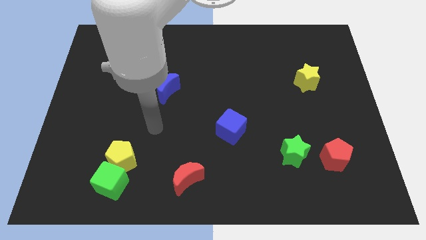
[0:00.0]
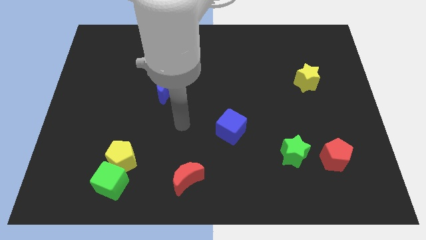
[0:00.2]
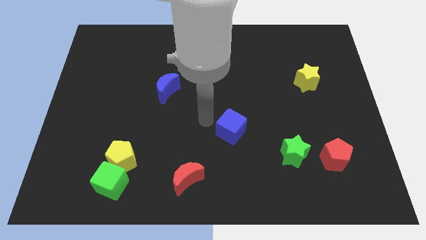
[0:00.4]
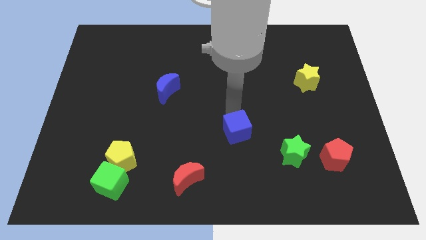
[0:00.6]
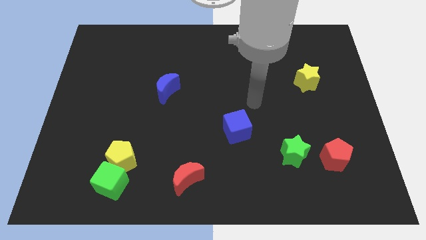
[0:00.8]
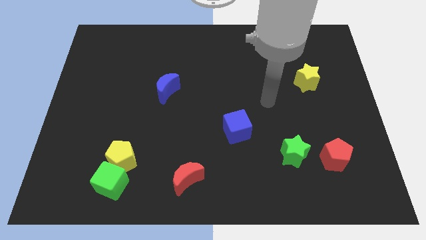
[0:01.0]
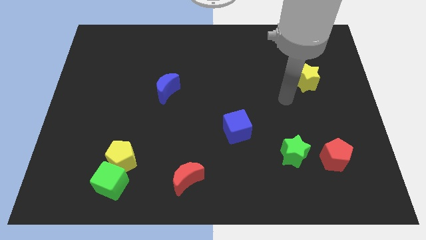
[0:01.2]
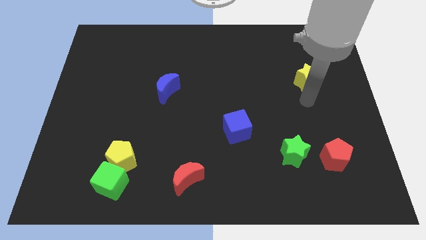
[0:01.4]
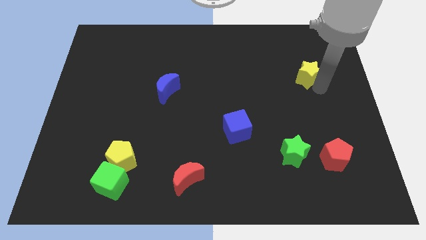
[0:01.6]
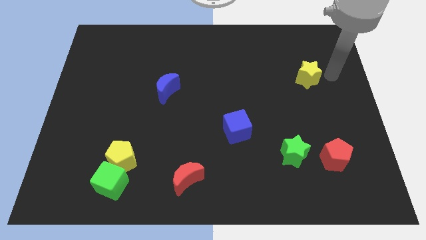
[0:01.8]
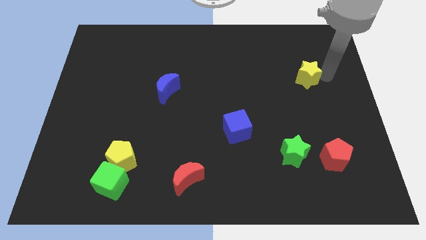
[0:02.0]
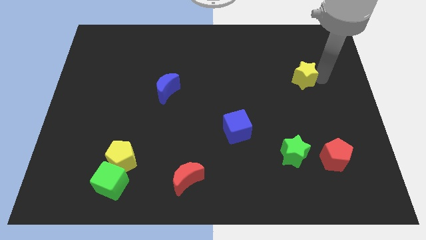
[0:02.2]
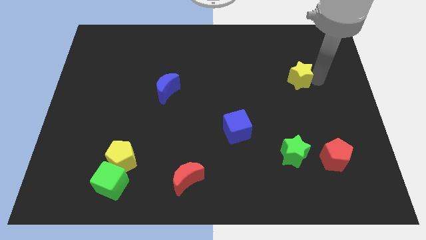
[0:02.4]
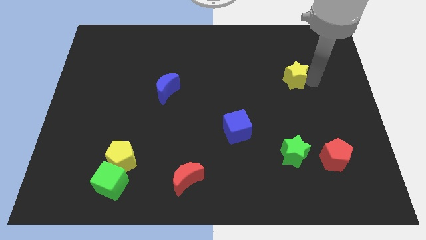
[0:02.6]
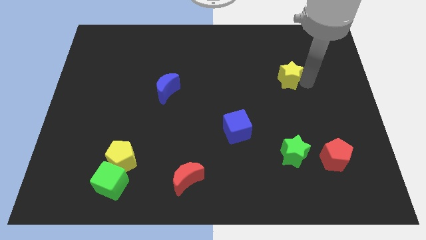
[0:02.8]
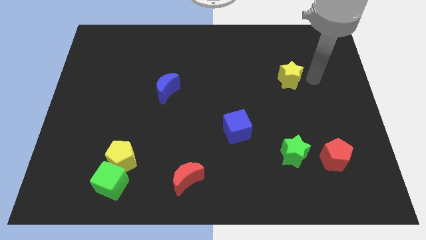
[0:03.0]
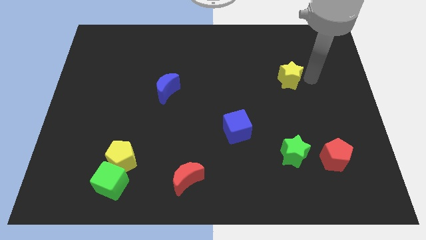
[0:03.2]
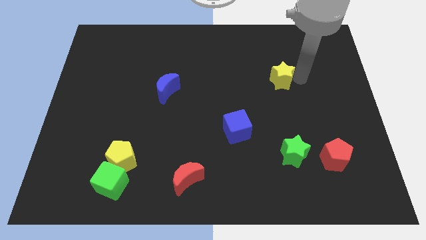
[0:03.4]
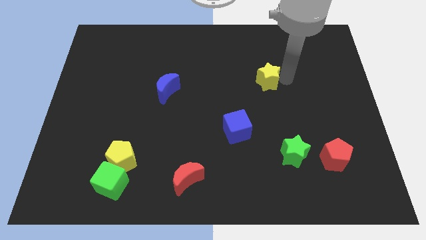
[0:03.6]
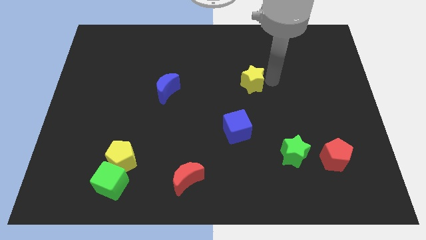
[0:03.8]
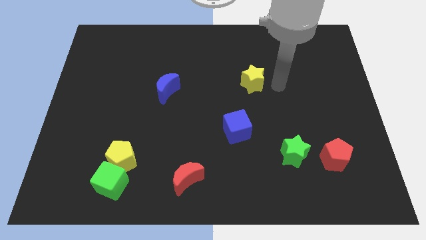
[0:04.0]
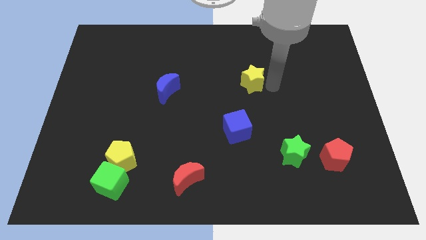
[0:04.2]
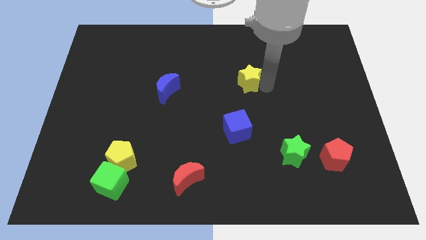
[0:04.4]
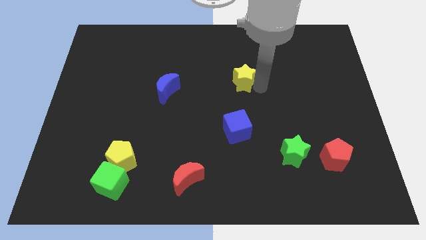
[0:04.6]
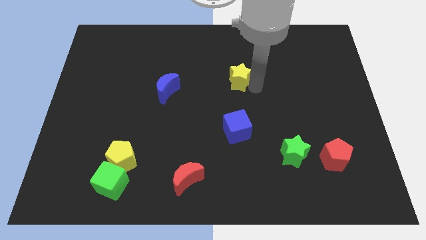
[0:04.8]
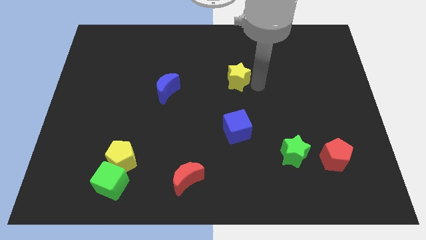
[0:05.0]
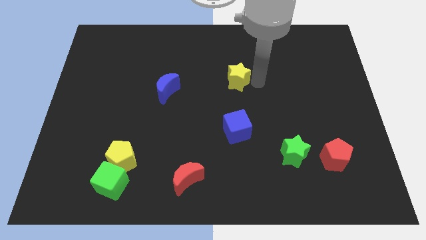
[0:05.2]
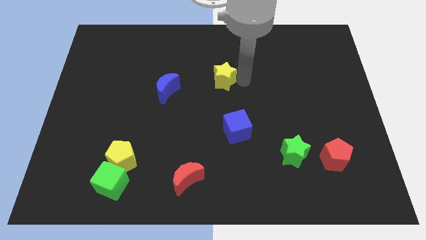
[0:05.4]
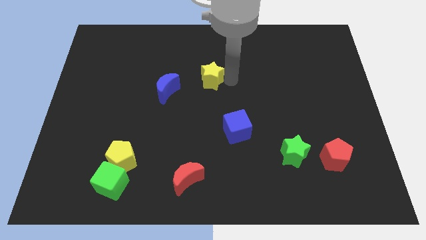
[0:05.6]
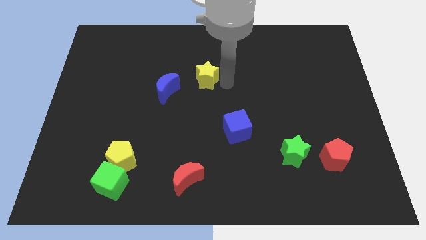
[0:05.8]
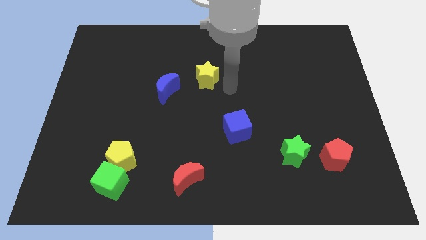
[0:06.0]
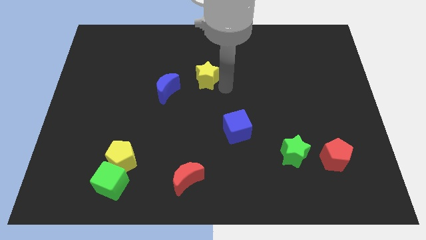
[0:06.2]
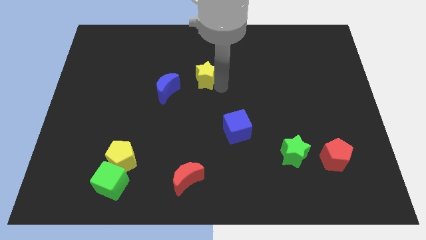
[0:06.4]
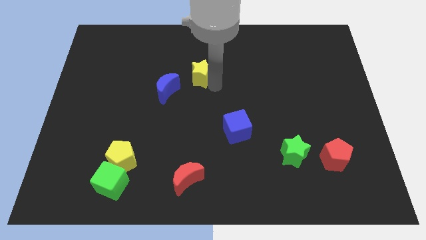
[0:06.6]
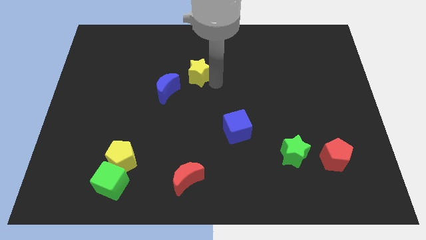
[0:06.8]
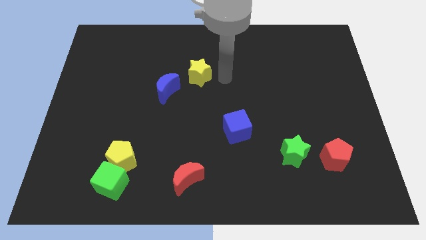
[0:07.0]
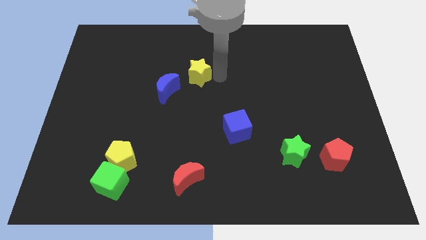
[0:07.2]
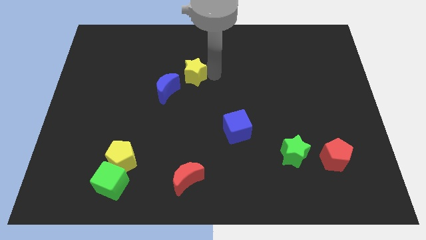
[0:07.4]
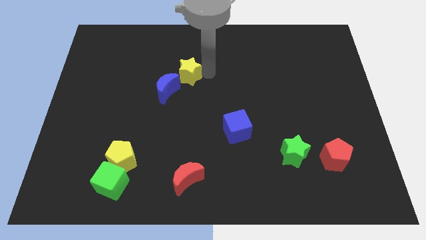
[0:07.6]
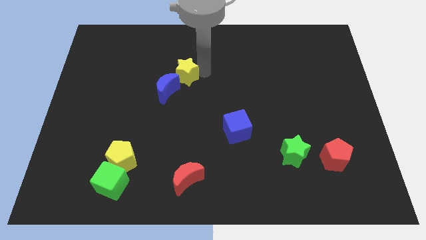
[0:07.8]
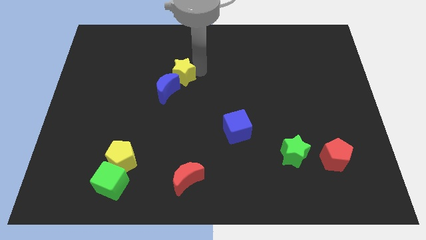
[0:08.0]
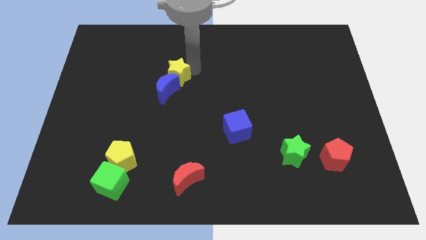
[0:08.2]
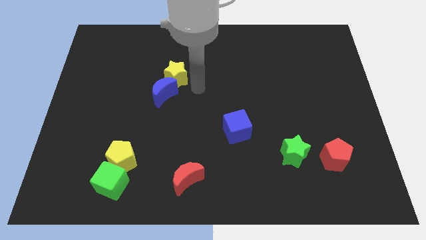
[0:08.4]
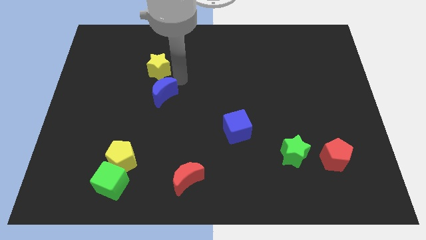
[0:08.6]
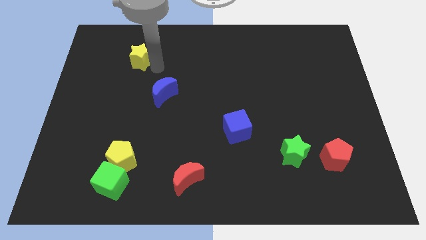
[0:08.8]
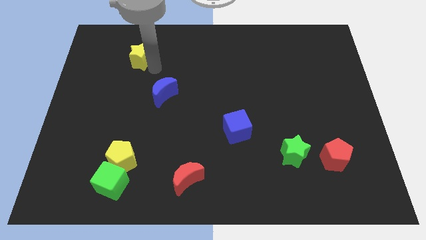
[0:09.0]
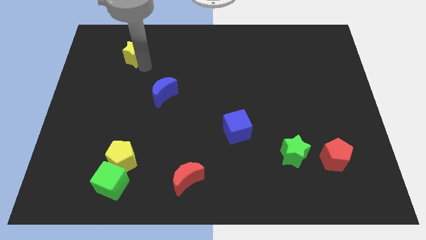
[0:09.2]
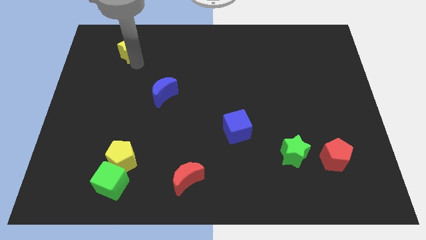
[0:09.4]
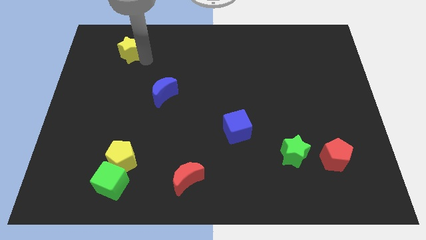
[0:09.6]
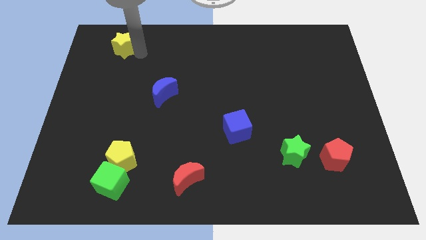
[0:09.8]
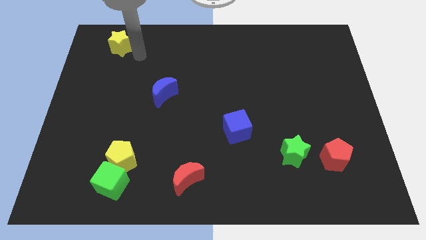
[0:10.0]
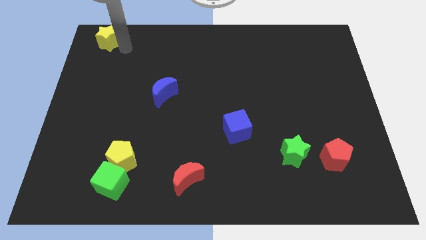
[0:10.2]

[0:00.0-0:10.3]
put the yellow star to the top left

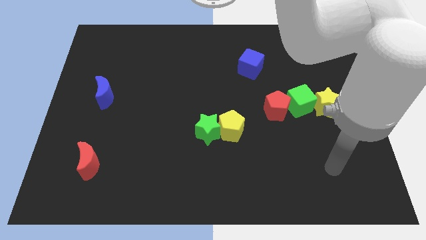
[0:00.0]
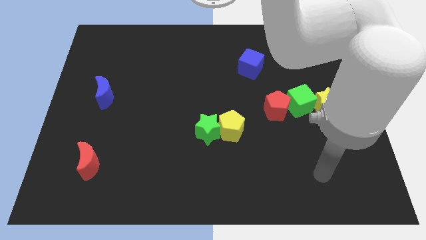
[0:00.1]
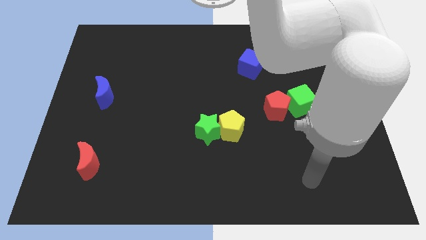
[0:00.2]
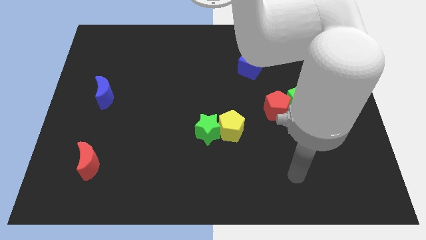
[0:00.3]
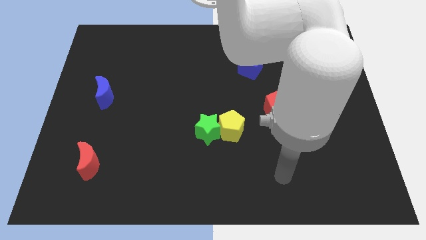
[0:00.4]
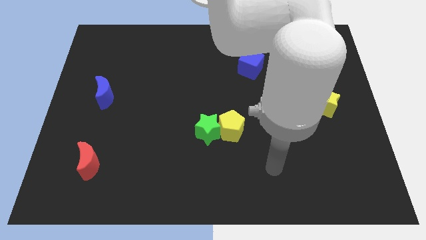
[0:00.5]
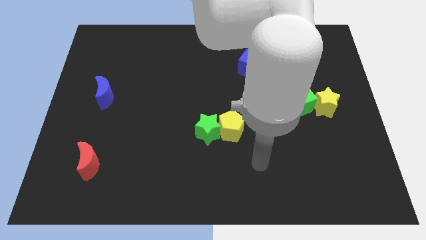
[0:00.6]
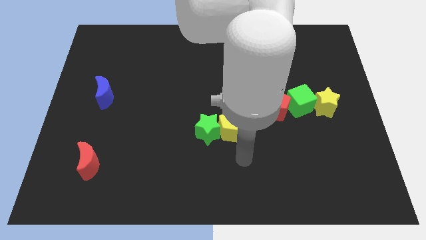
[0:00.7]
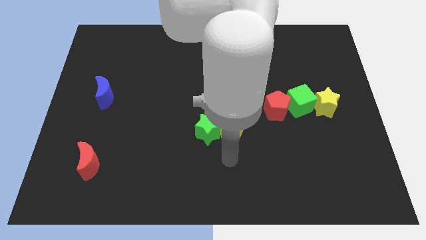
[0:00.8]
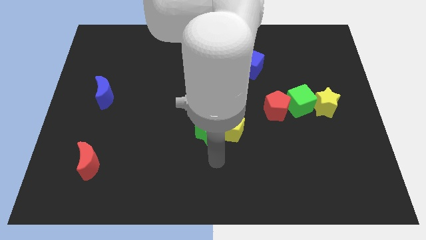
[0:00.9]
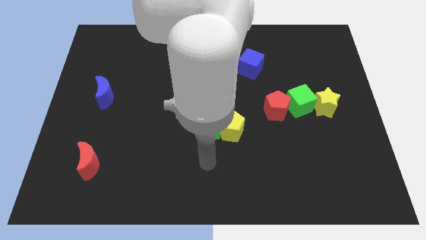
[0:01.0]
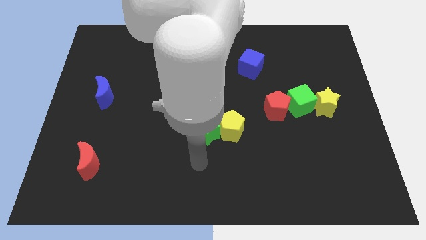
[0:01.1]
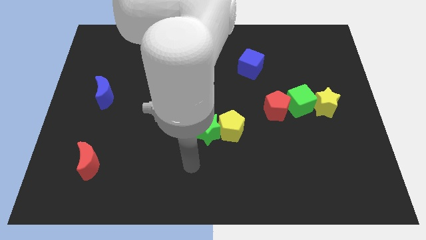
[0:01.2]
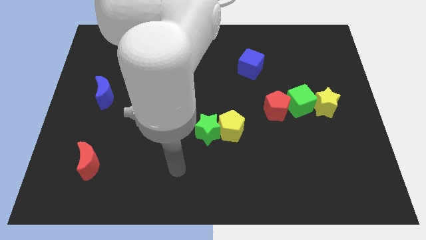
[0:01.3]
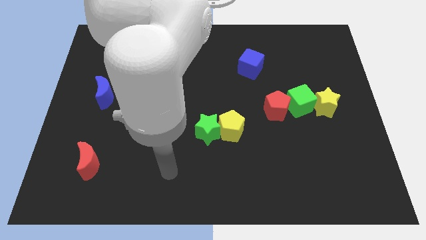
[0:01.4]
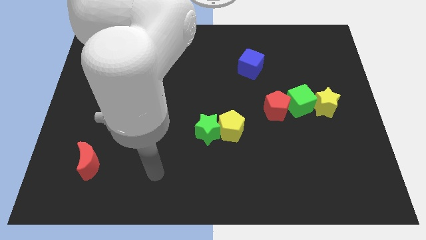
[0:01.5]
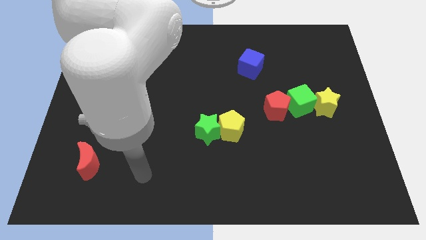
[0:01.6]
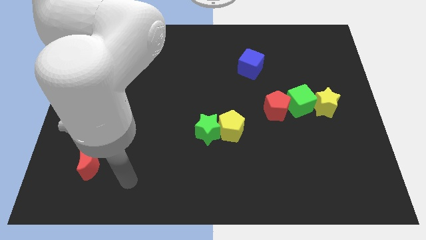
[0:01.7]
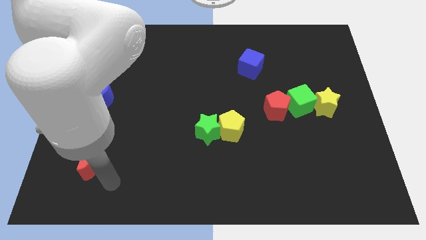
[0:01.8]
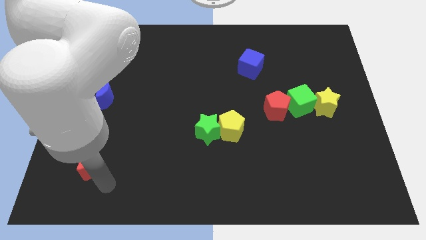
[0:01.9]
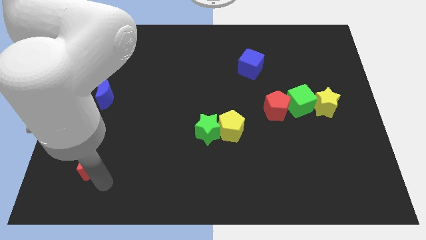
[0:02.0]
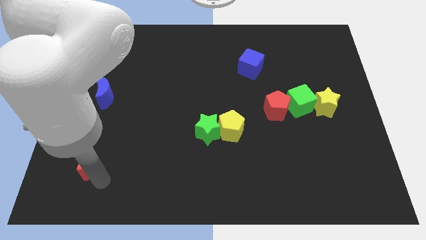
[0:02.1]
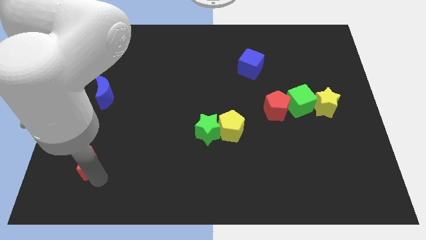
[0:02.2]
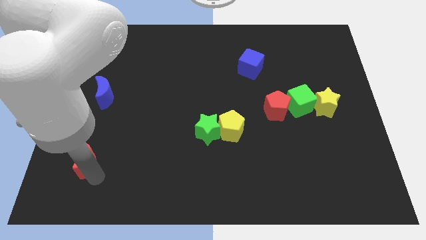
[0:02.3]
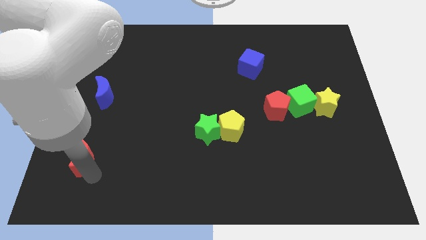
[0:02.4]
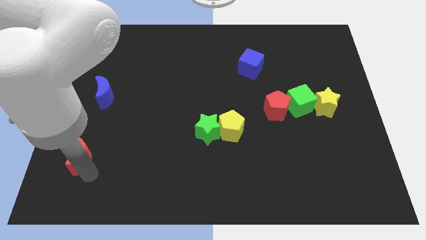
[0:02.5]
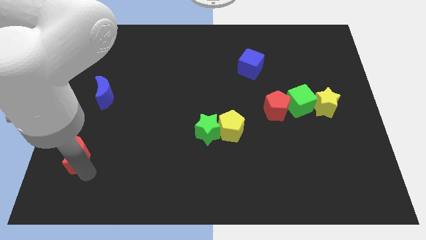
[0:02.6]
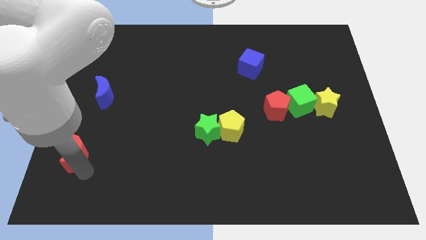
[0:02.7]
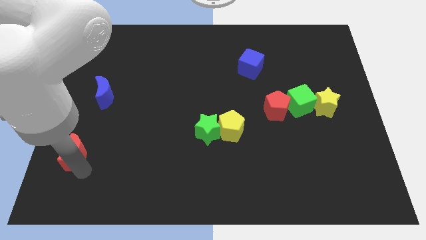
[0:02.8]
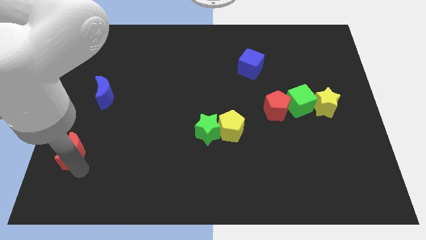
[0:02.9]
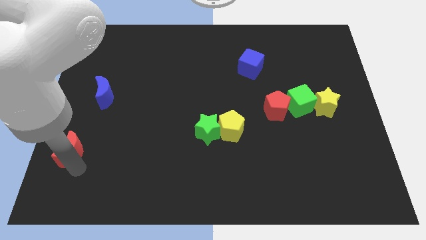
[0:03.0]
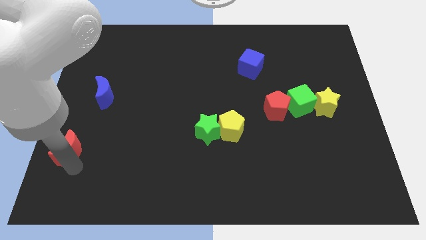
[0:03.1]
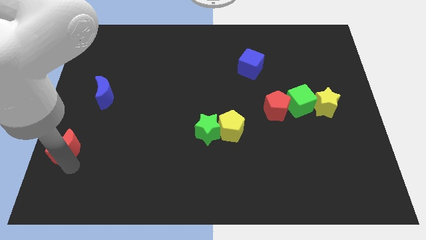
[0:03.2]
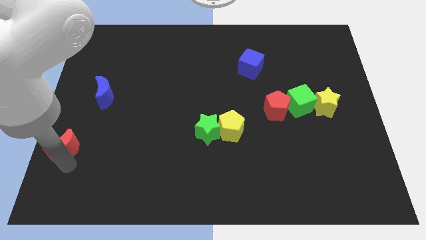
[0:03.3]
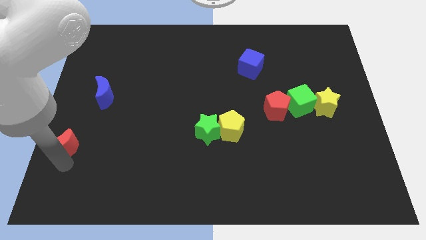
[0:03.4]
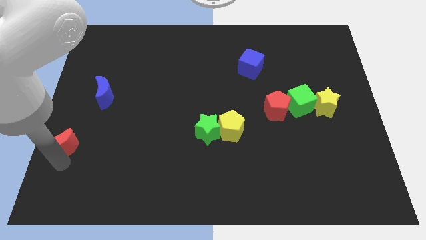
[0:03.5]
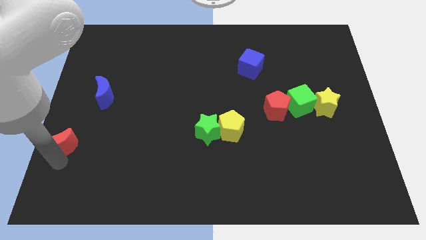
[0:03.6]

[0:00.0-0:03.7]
move the red moon to the left side of the board
